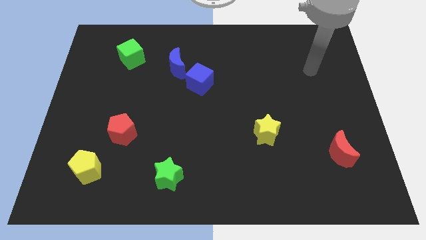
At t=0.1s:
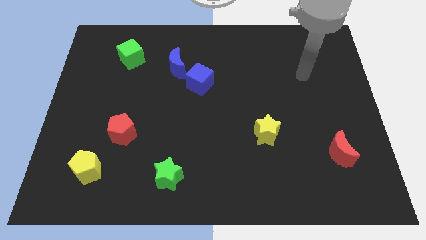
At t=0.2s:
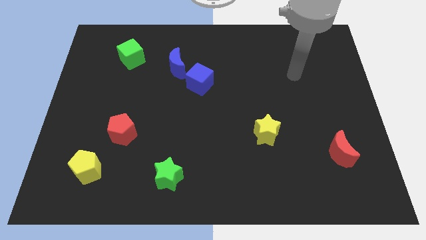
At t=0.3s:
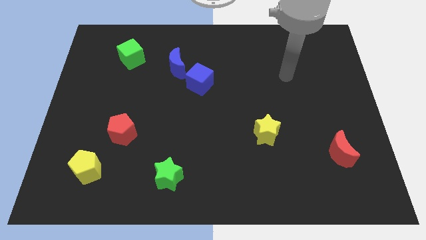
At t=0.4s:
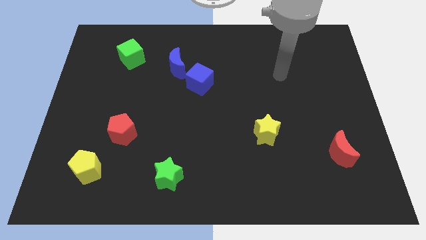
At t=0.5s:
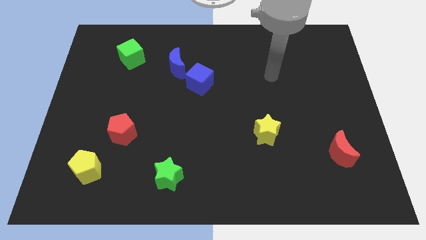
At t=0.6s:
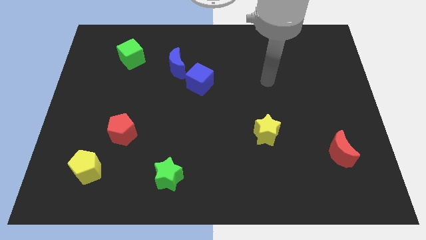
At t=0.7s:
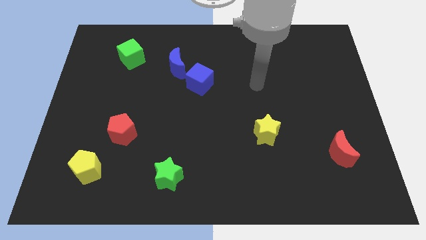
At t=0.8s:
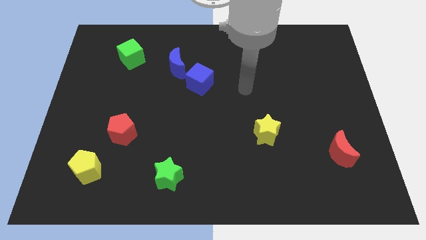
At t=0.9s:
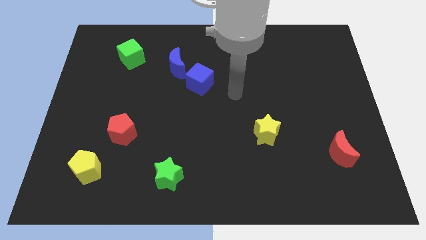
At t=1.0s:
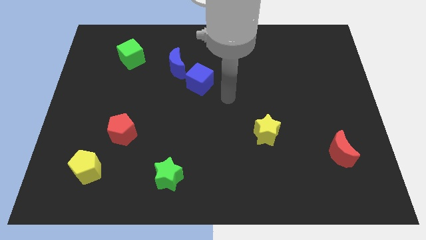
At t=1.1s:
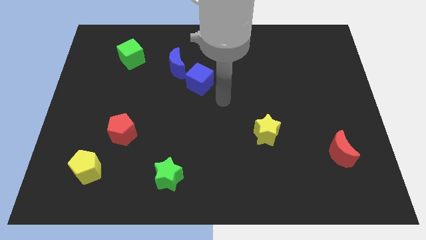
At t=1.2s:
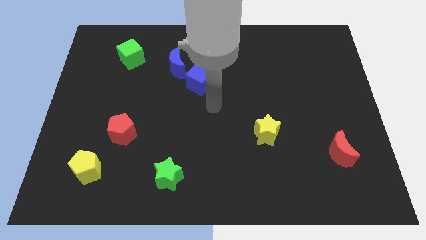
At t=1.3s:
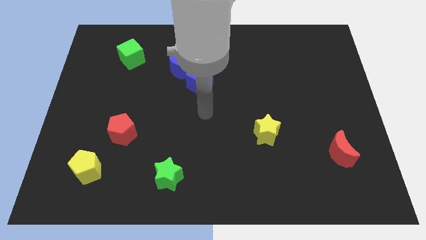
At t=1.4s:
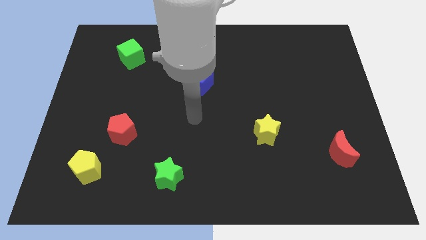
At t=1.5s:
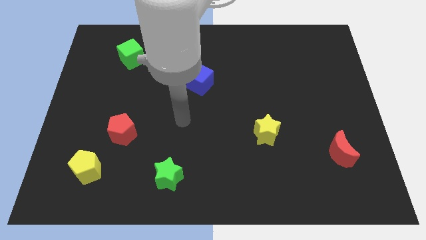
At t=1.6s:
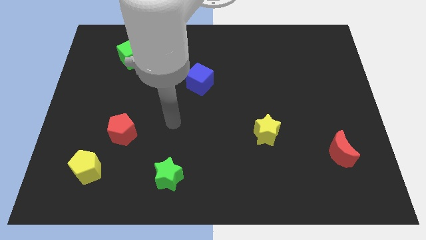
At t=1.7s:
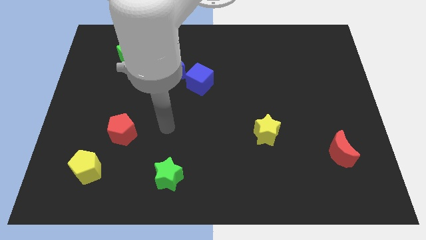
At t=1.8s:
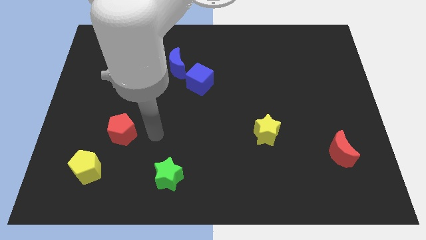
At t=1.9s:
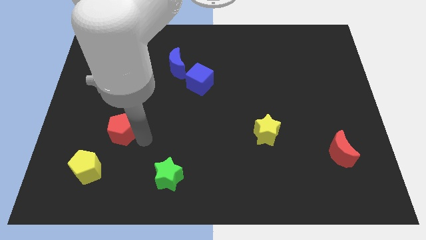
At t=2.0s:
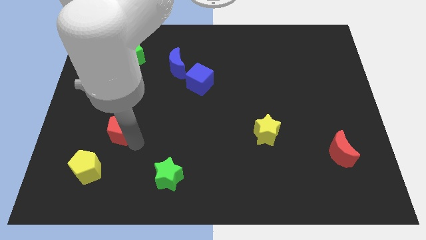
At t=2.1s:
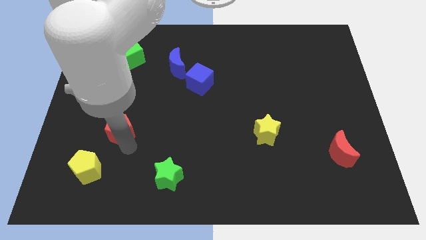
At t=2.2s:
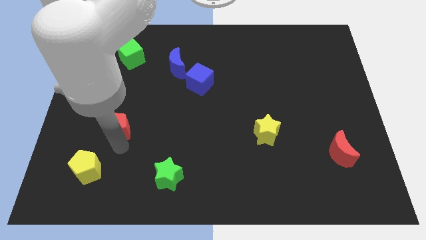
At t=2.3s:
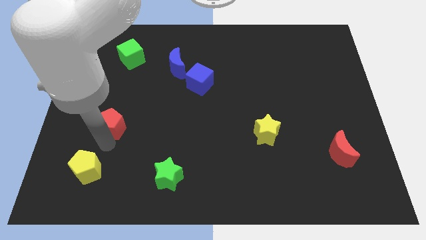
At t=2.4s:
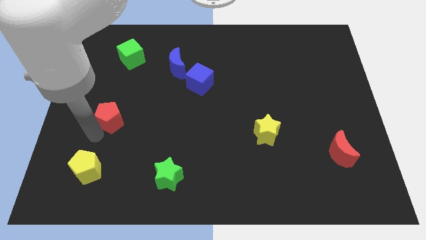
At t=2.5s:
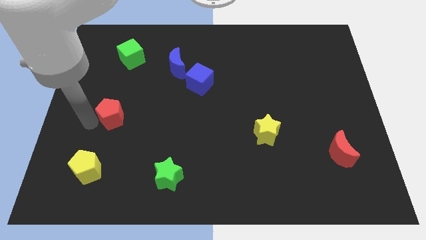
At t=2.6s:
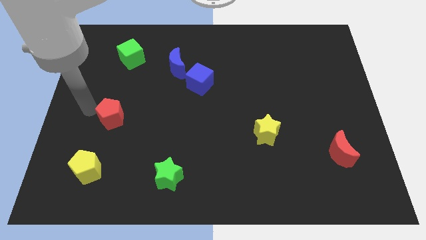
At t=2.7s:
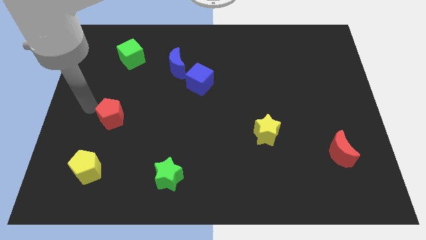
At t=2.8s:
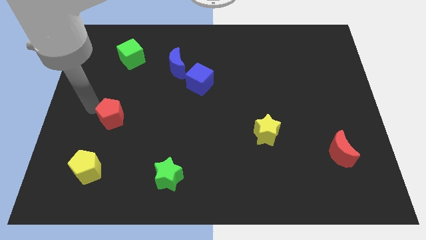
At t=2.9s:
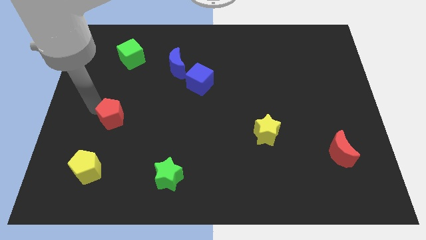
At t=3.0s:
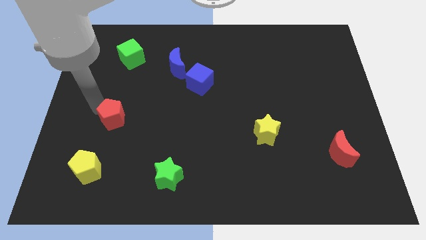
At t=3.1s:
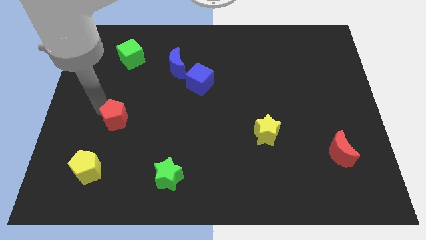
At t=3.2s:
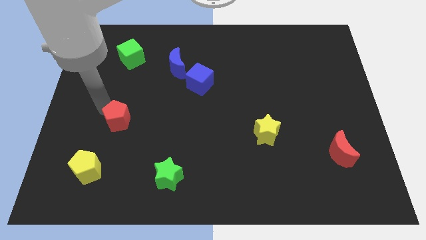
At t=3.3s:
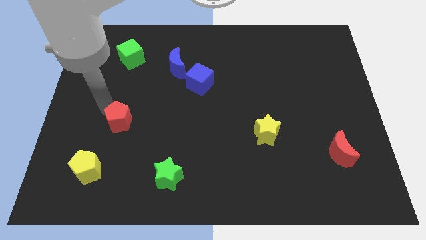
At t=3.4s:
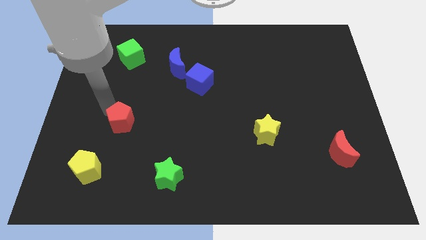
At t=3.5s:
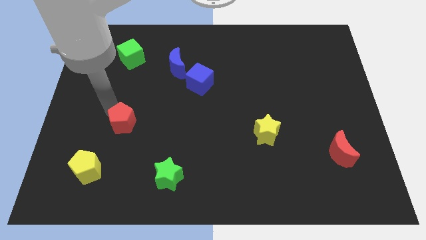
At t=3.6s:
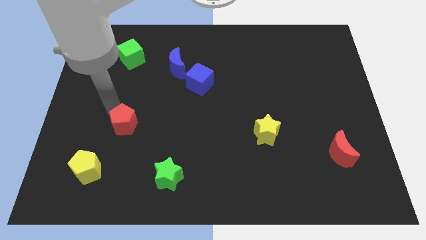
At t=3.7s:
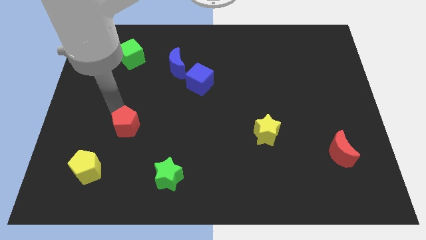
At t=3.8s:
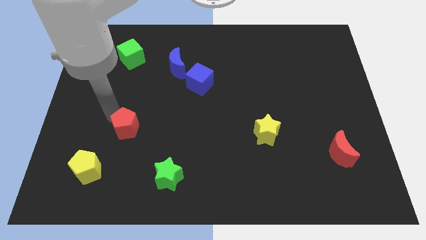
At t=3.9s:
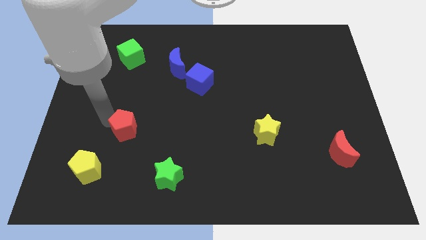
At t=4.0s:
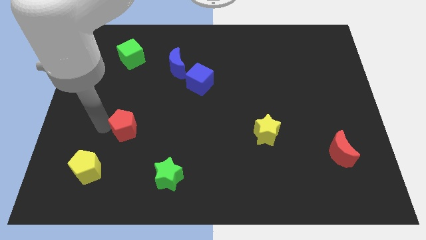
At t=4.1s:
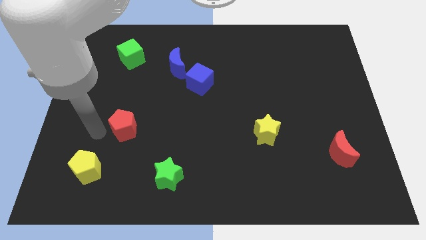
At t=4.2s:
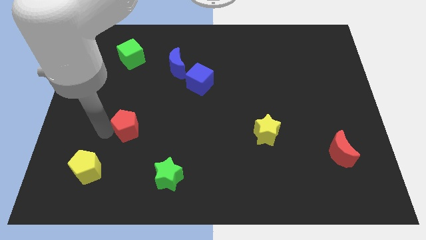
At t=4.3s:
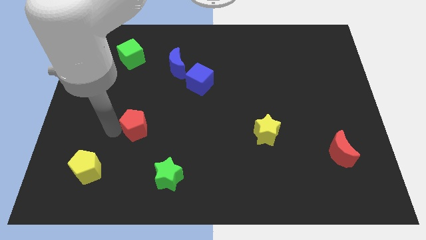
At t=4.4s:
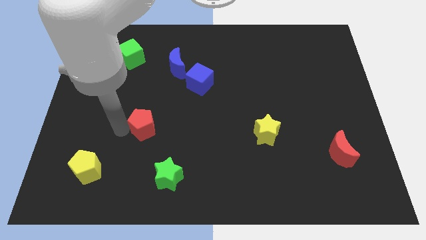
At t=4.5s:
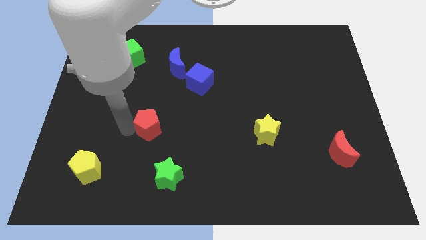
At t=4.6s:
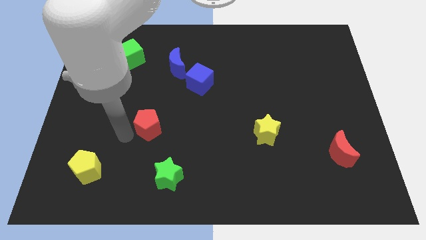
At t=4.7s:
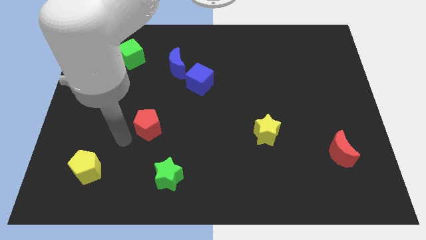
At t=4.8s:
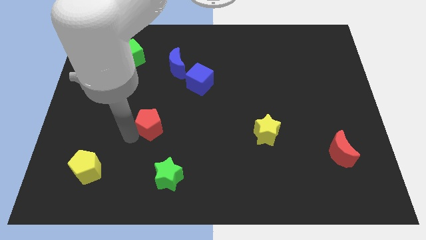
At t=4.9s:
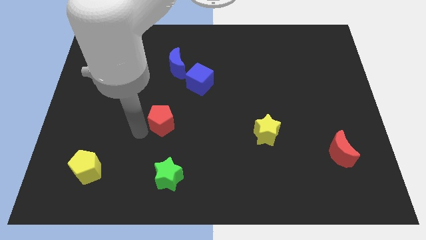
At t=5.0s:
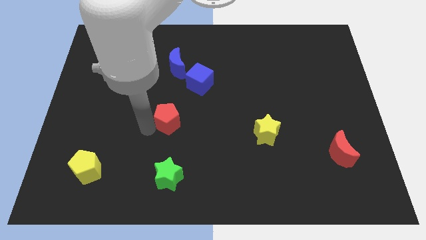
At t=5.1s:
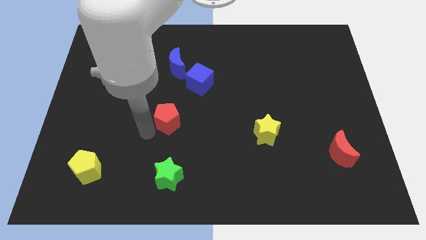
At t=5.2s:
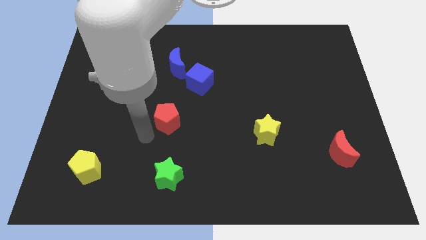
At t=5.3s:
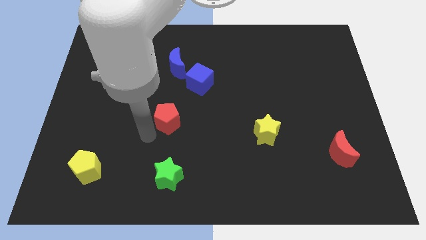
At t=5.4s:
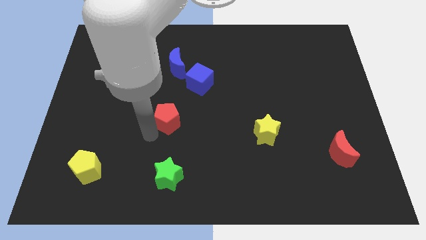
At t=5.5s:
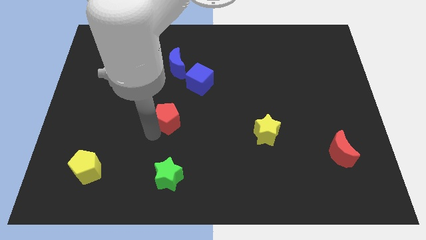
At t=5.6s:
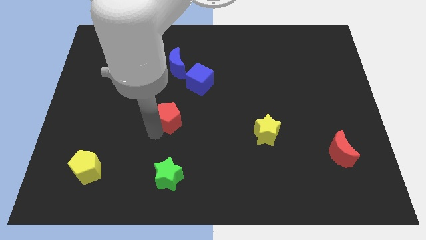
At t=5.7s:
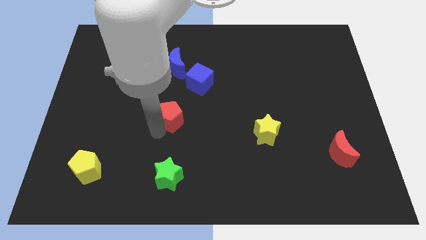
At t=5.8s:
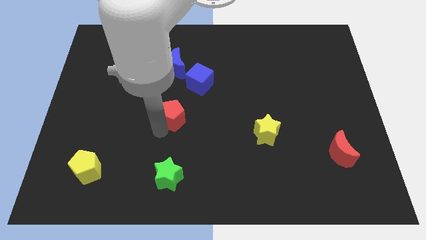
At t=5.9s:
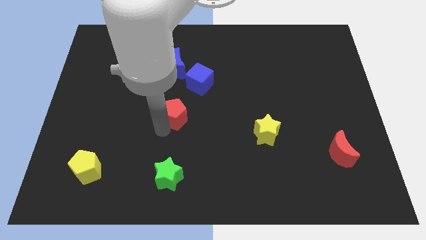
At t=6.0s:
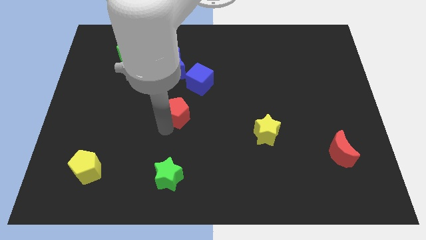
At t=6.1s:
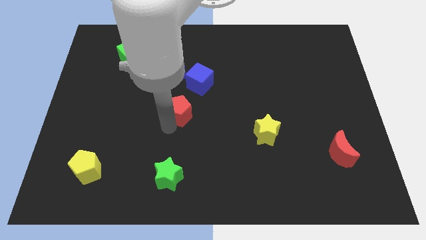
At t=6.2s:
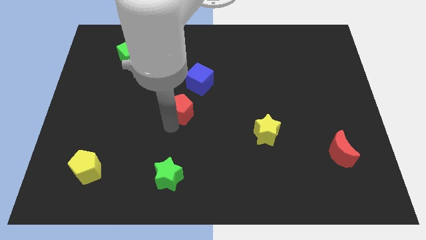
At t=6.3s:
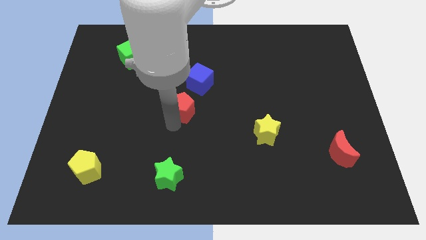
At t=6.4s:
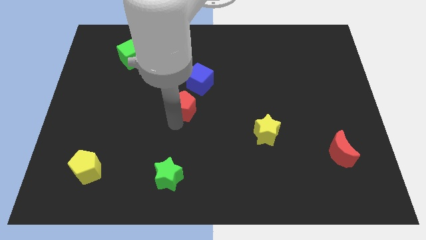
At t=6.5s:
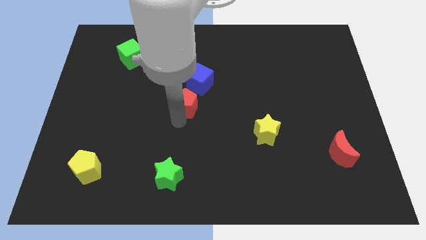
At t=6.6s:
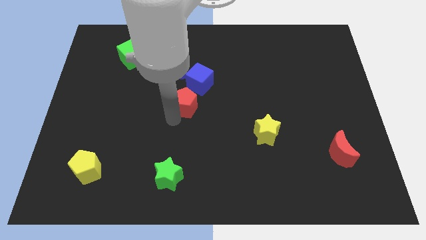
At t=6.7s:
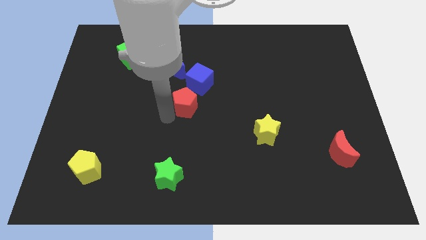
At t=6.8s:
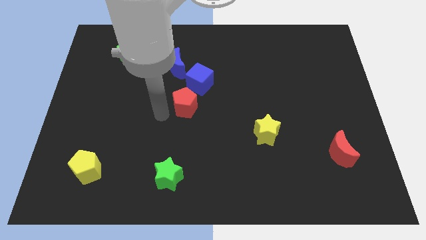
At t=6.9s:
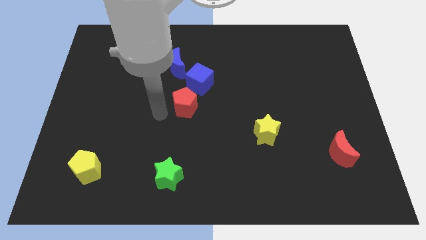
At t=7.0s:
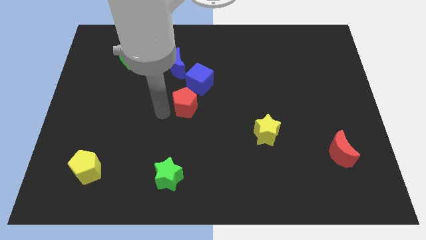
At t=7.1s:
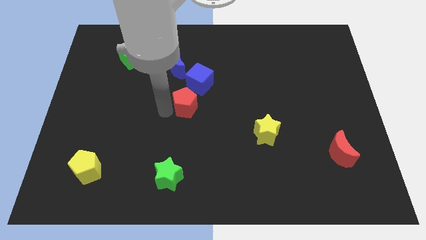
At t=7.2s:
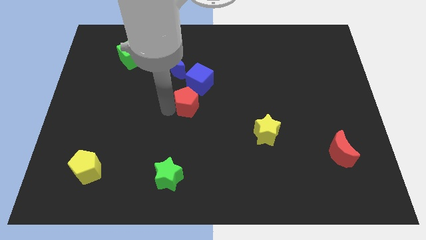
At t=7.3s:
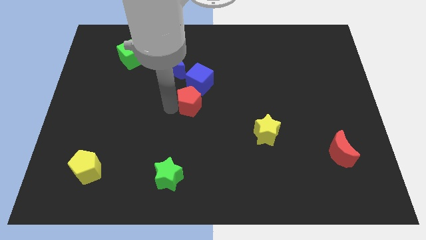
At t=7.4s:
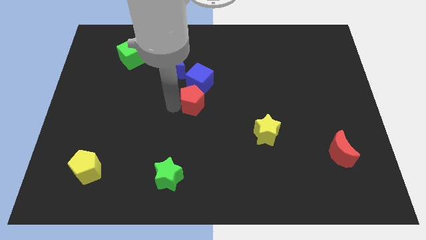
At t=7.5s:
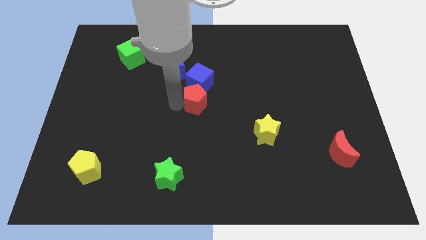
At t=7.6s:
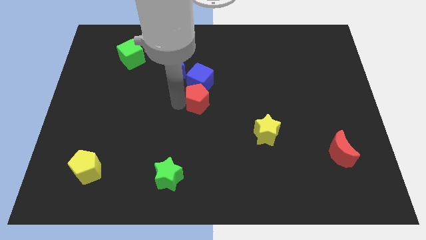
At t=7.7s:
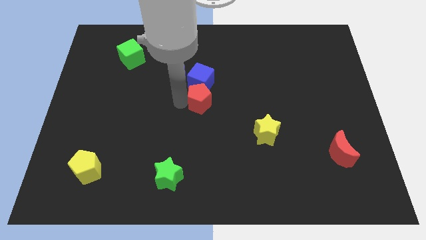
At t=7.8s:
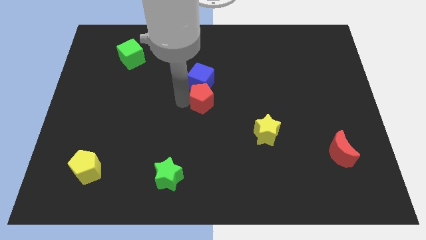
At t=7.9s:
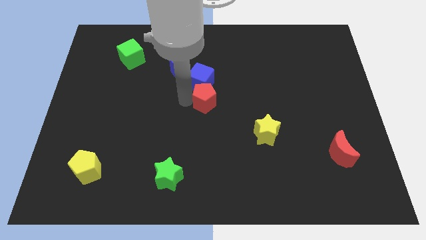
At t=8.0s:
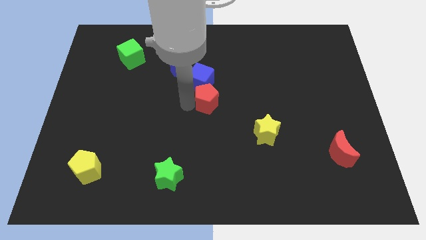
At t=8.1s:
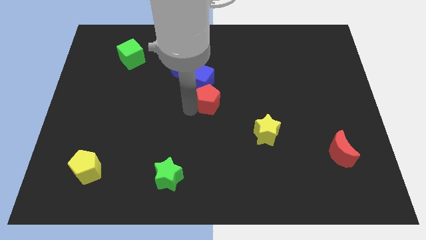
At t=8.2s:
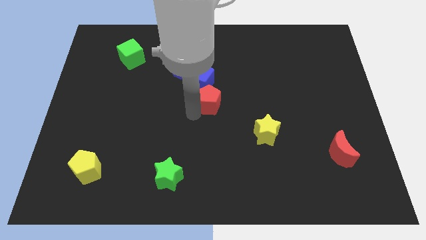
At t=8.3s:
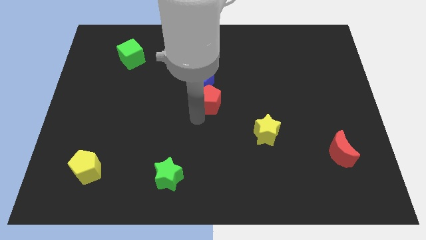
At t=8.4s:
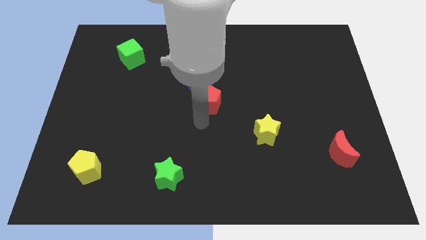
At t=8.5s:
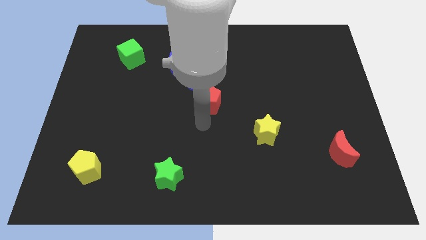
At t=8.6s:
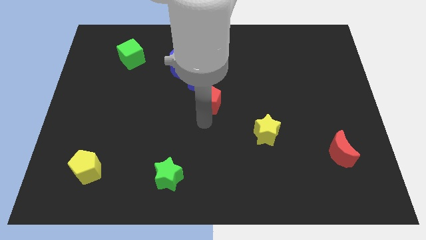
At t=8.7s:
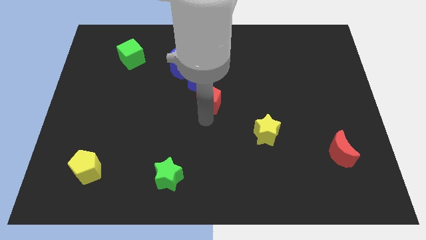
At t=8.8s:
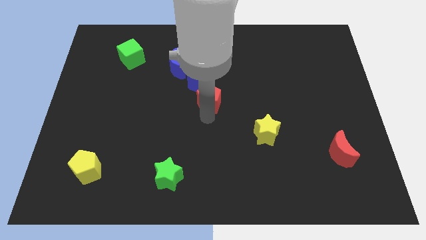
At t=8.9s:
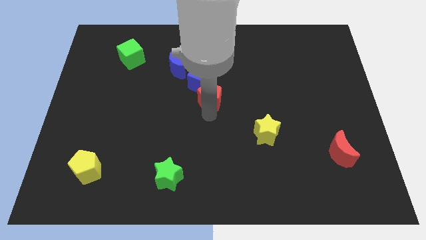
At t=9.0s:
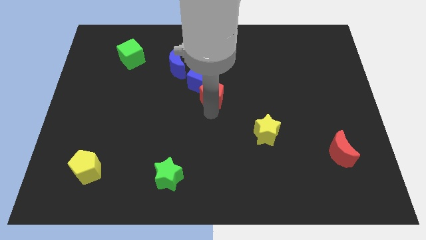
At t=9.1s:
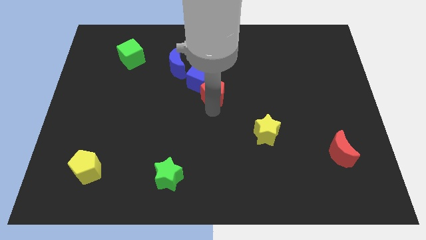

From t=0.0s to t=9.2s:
slide the red pentagon up and to the right diagonally
